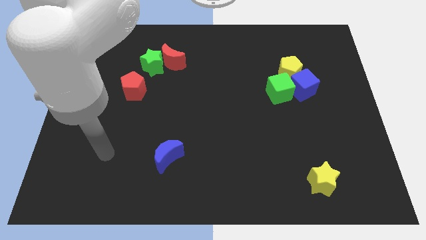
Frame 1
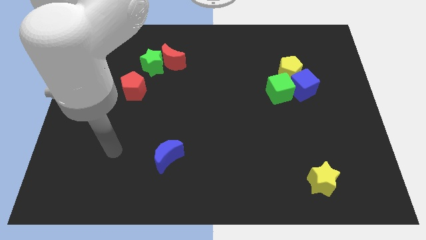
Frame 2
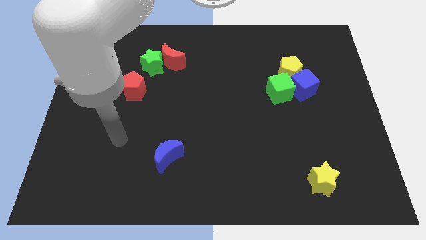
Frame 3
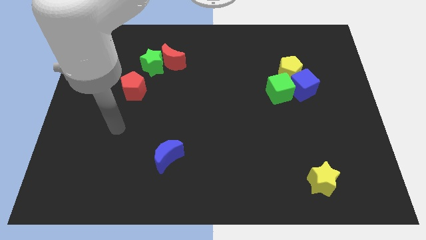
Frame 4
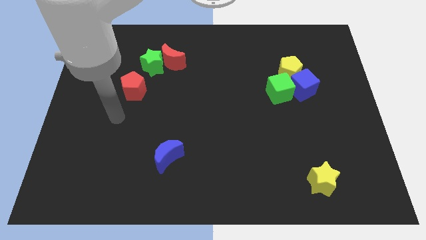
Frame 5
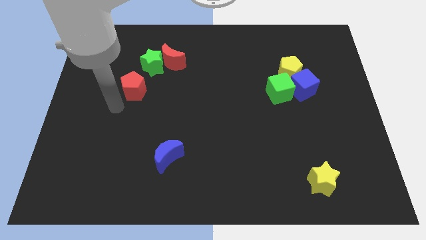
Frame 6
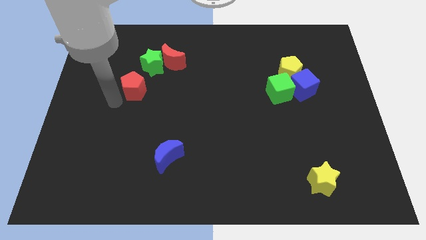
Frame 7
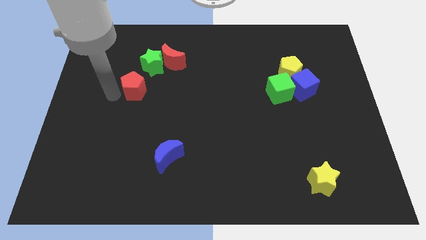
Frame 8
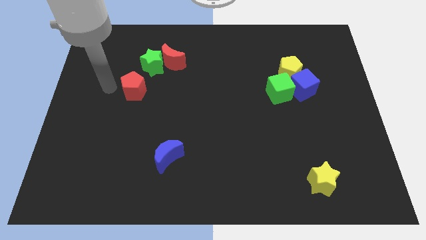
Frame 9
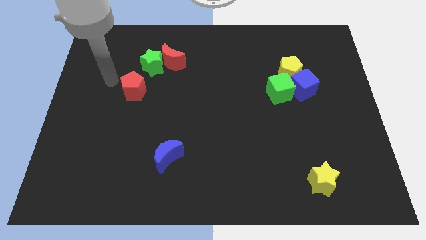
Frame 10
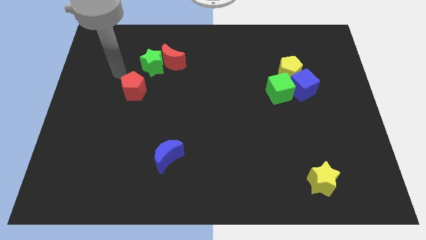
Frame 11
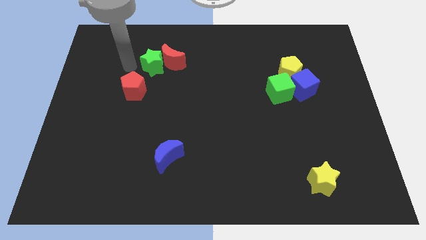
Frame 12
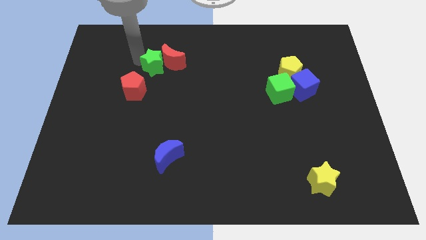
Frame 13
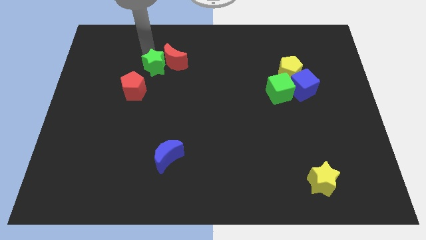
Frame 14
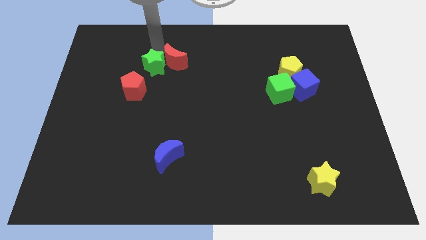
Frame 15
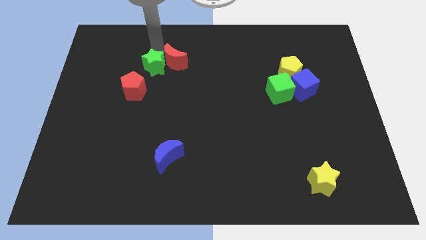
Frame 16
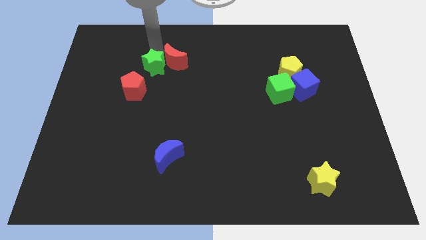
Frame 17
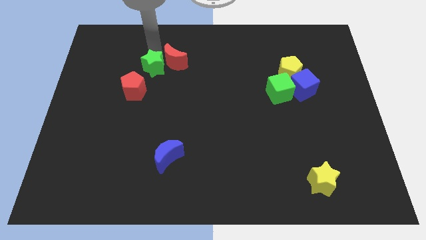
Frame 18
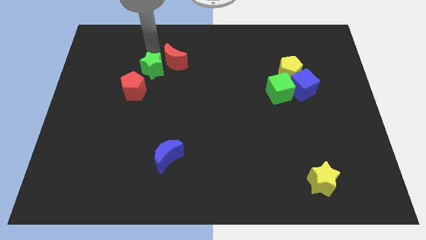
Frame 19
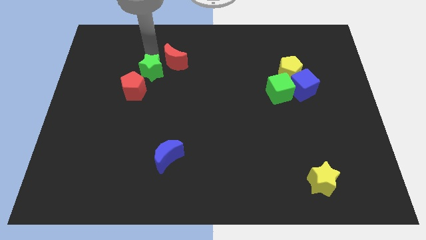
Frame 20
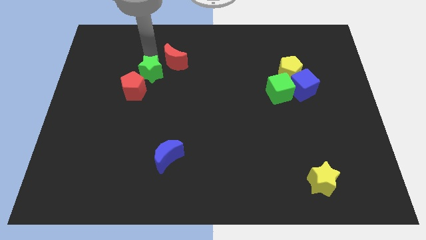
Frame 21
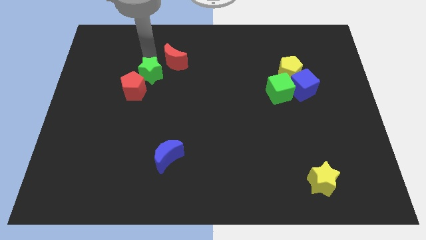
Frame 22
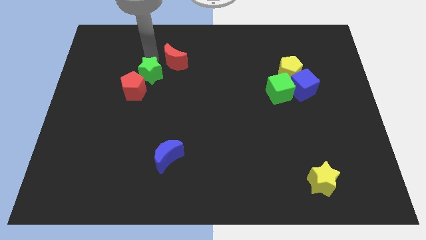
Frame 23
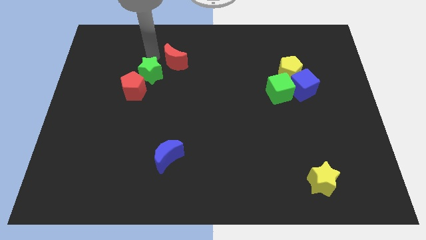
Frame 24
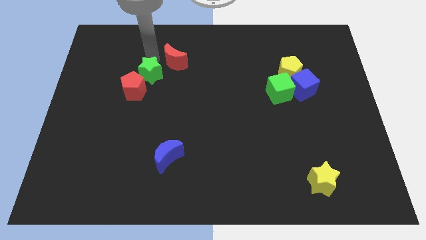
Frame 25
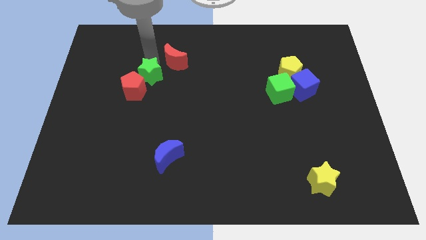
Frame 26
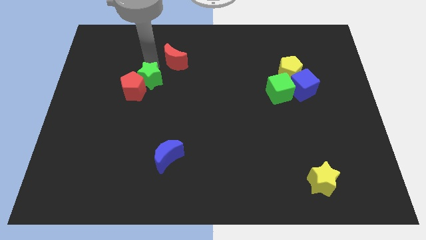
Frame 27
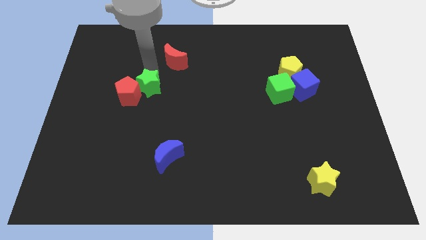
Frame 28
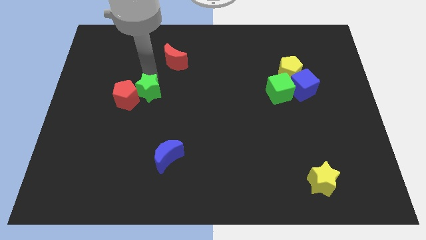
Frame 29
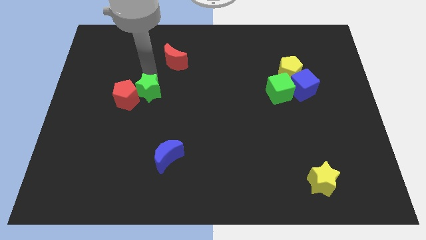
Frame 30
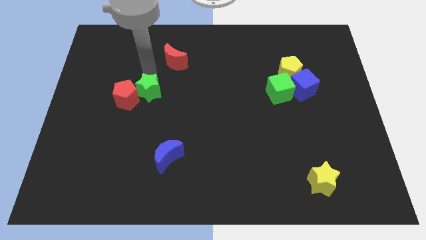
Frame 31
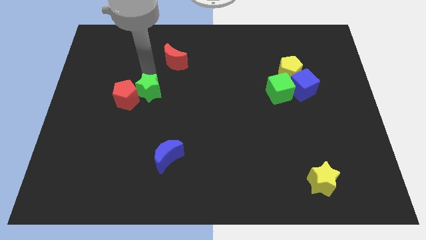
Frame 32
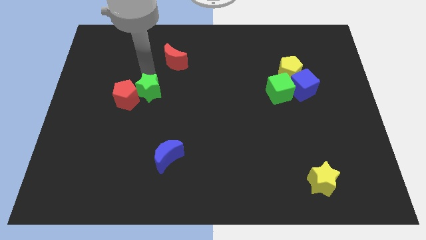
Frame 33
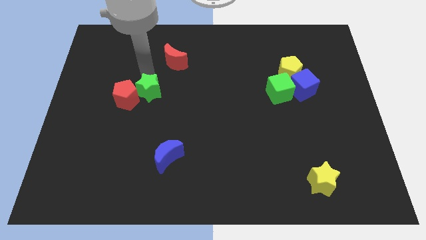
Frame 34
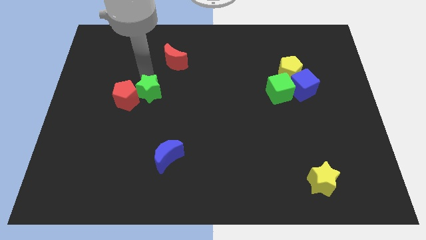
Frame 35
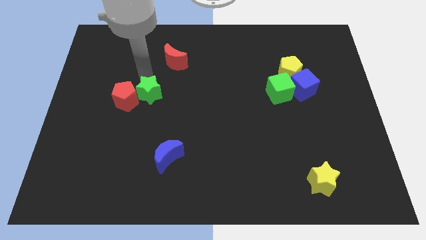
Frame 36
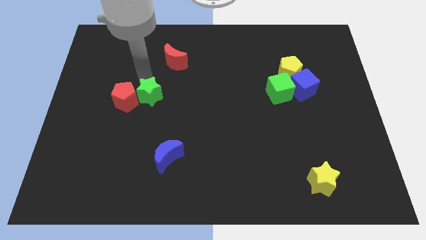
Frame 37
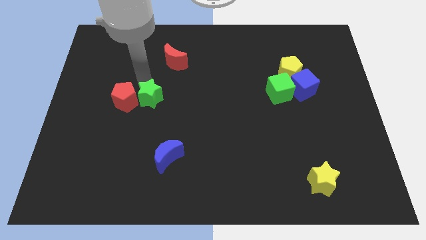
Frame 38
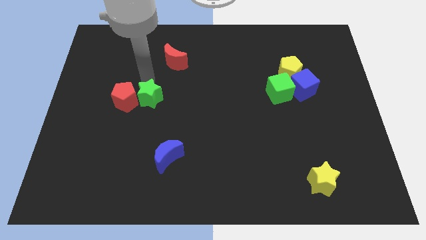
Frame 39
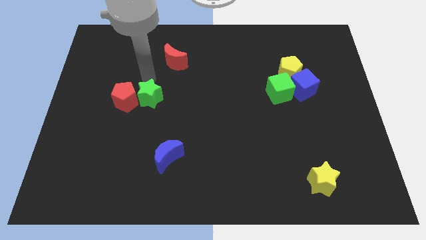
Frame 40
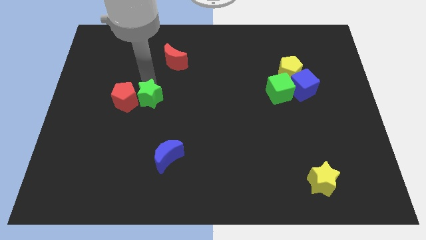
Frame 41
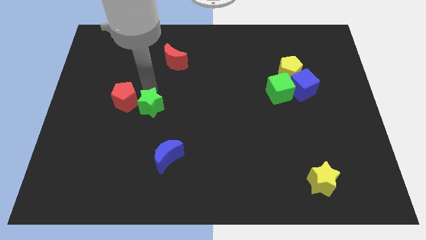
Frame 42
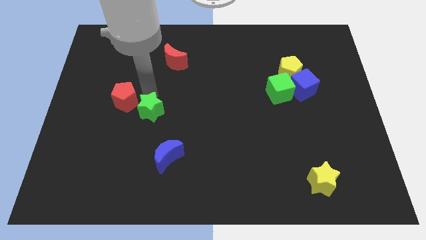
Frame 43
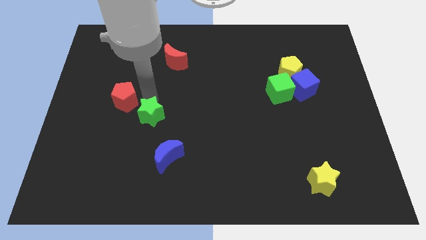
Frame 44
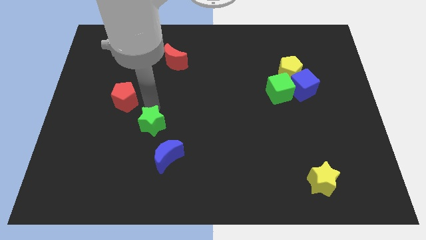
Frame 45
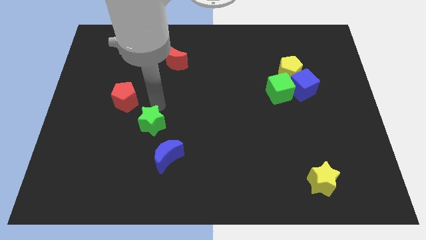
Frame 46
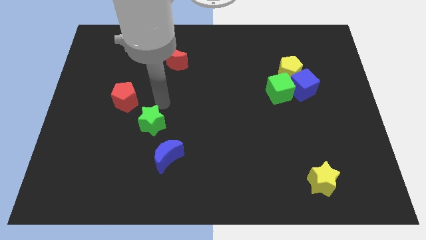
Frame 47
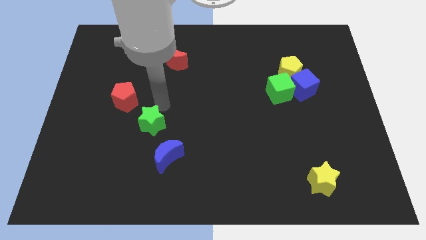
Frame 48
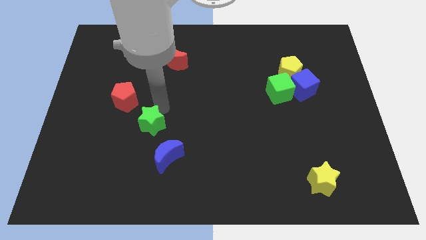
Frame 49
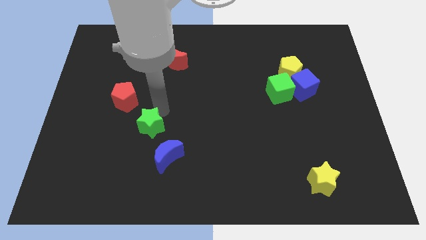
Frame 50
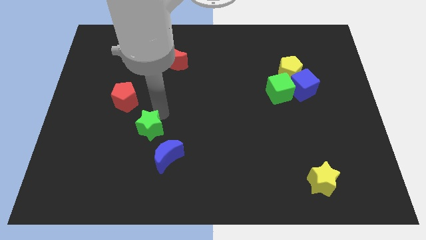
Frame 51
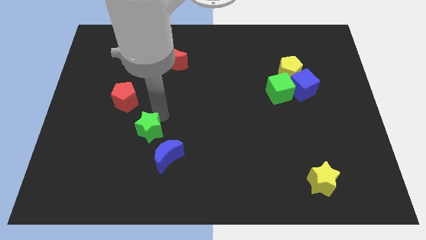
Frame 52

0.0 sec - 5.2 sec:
slide the green star down

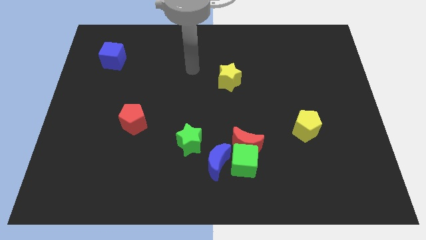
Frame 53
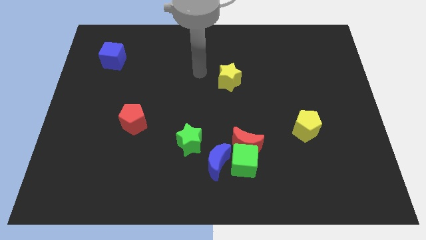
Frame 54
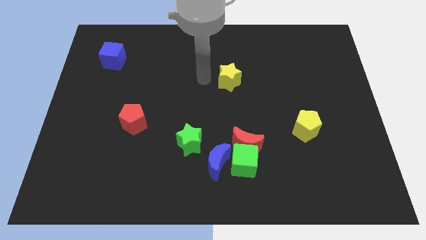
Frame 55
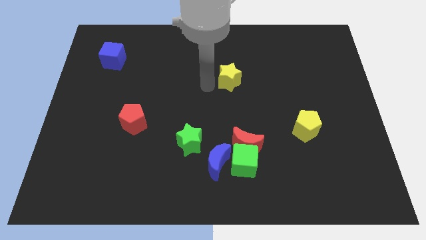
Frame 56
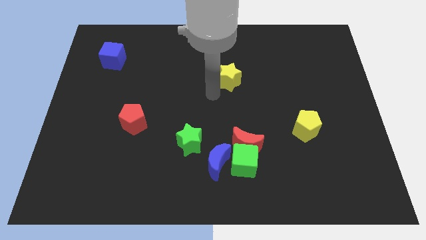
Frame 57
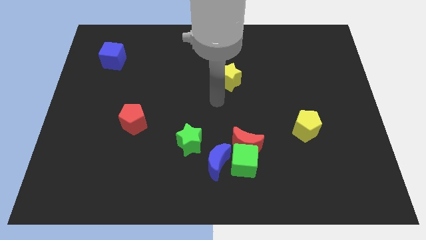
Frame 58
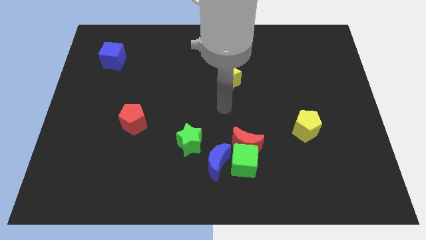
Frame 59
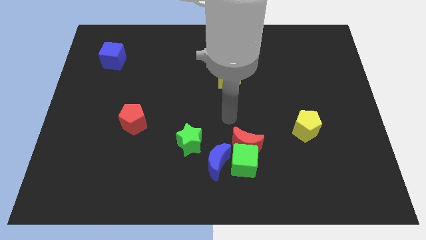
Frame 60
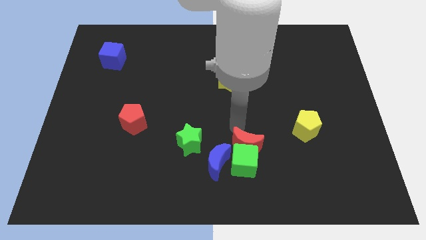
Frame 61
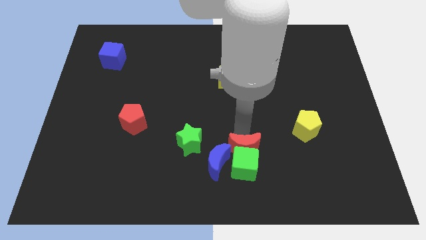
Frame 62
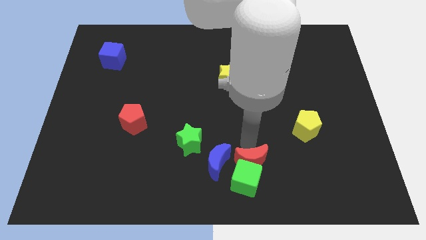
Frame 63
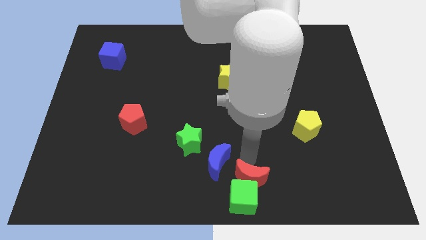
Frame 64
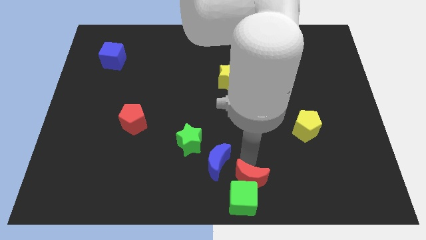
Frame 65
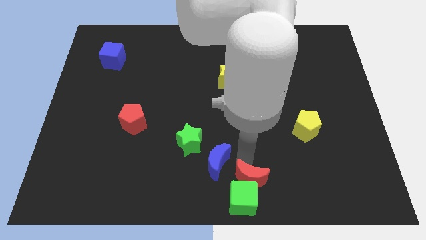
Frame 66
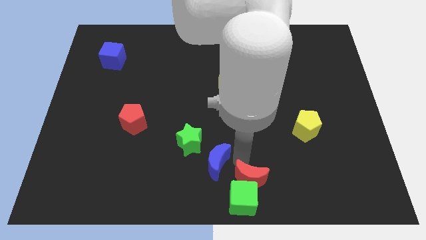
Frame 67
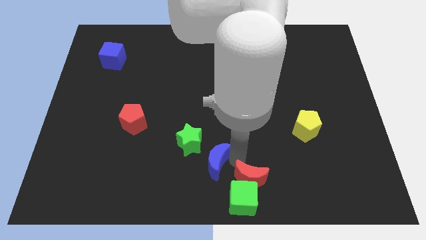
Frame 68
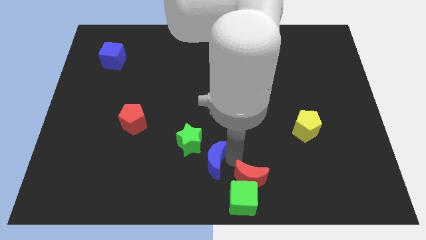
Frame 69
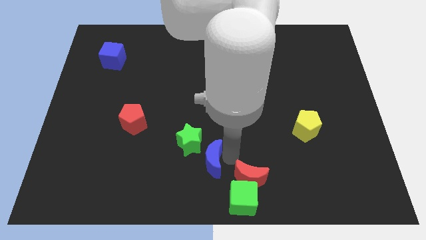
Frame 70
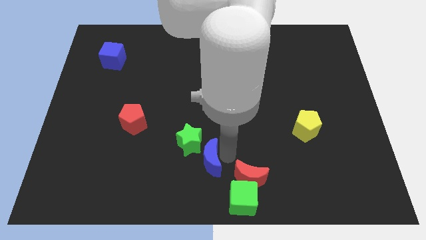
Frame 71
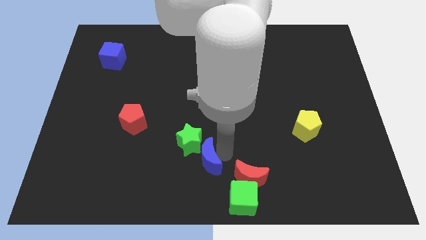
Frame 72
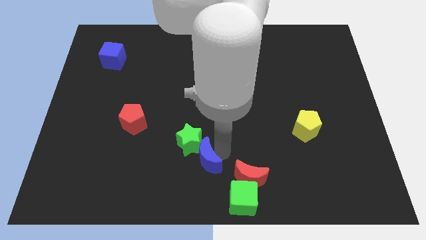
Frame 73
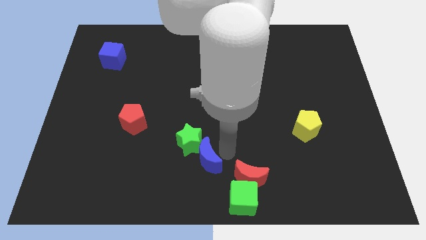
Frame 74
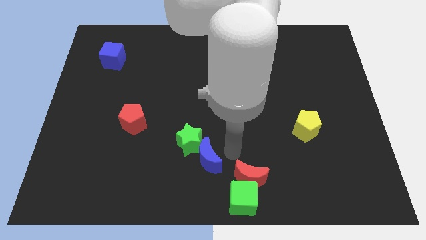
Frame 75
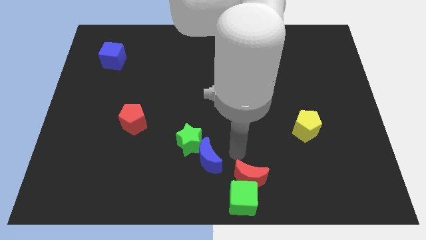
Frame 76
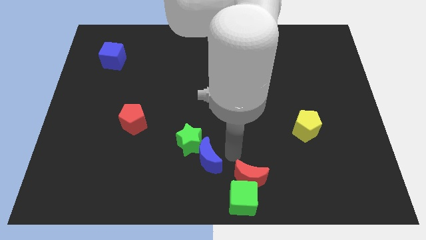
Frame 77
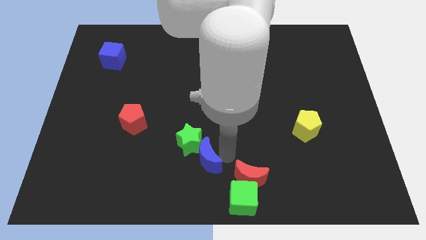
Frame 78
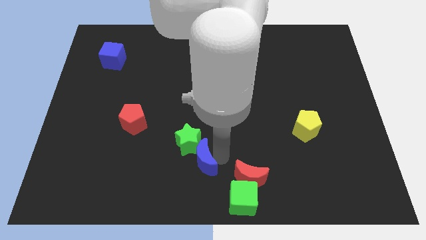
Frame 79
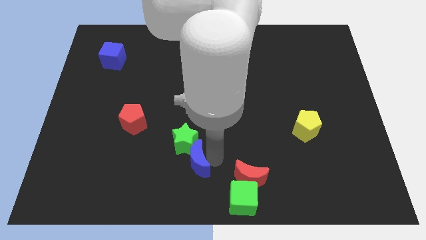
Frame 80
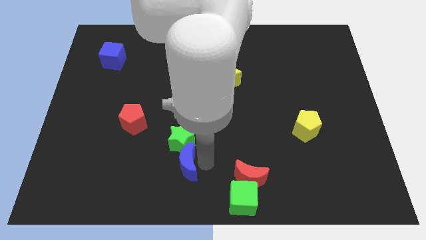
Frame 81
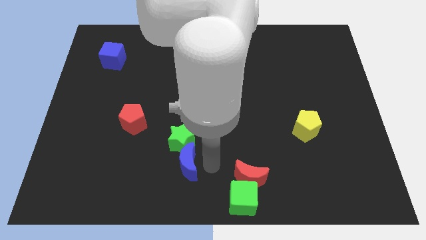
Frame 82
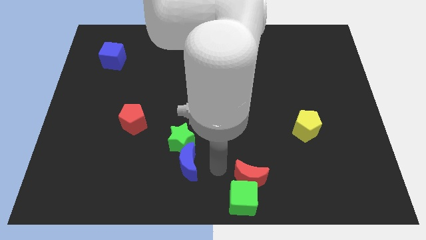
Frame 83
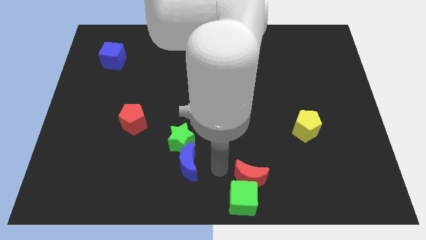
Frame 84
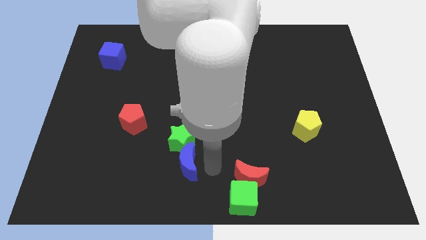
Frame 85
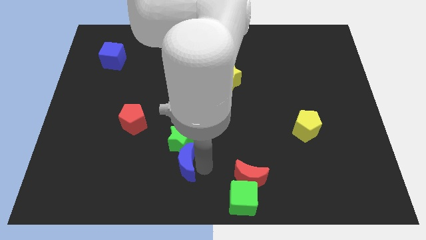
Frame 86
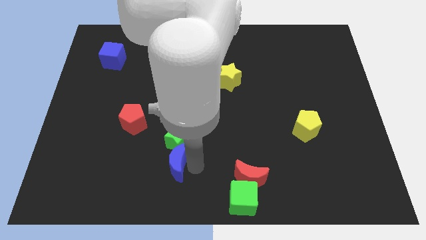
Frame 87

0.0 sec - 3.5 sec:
slightly move the blue moon left
